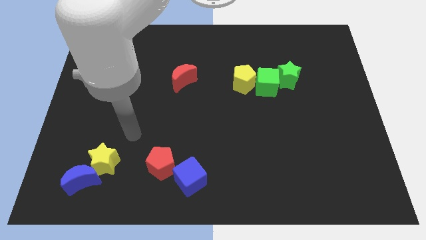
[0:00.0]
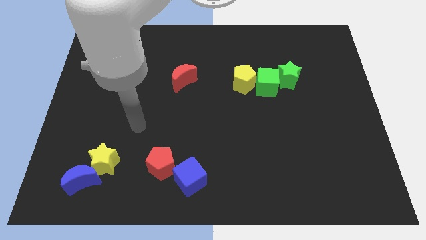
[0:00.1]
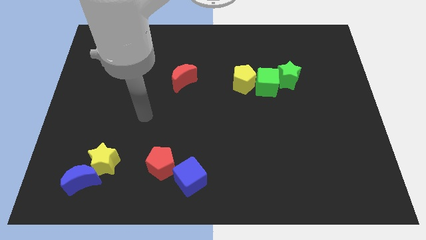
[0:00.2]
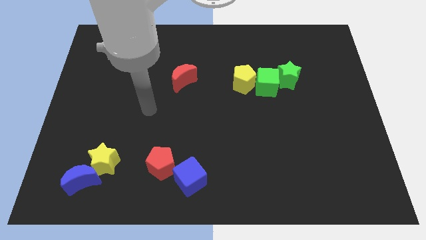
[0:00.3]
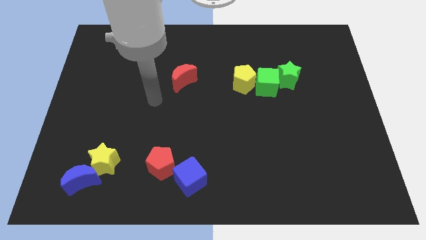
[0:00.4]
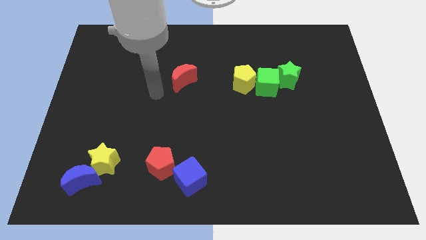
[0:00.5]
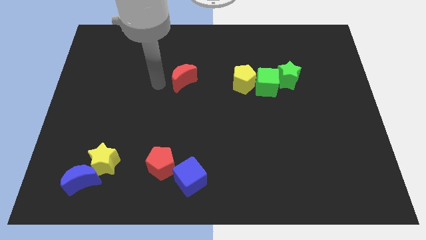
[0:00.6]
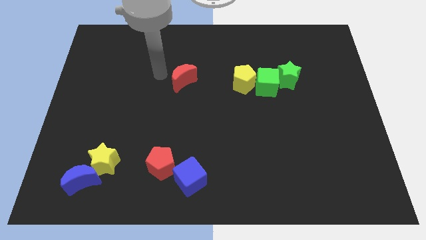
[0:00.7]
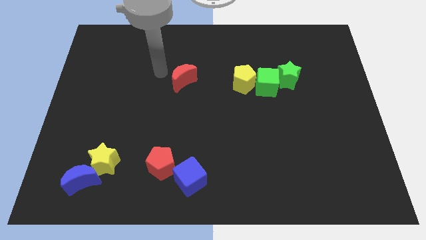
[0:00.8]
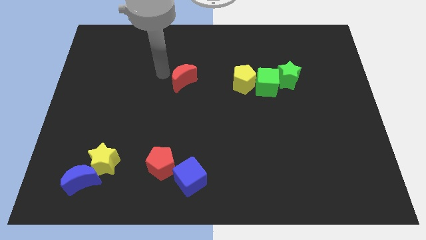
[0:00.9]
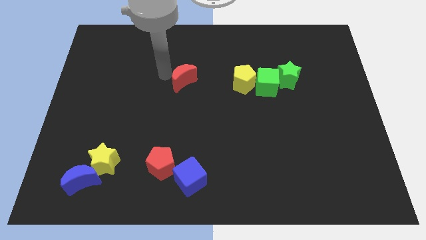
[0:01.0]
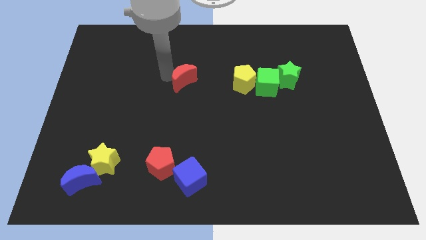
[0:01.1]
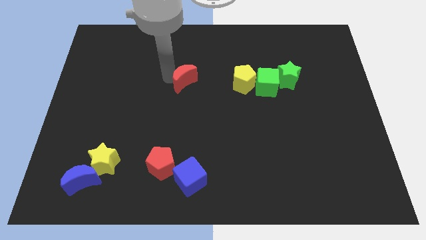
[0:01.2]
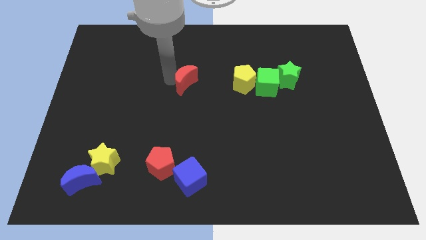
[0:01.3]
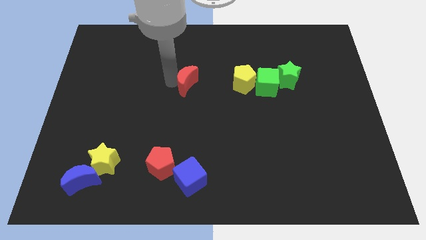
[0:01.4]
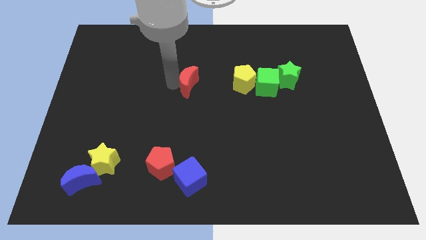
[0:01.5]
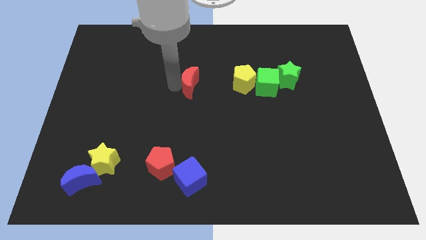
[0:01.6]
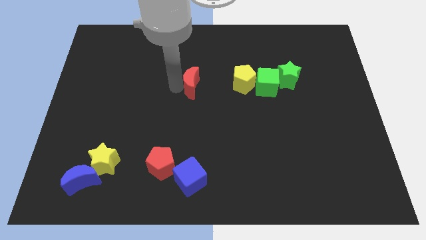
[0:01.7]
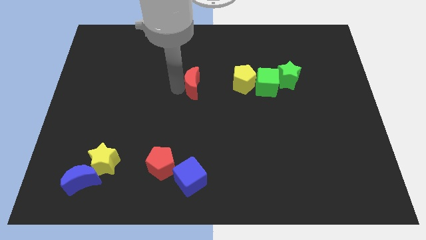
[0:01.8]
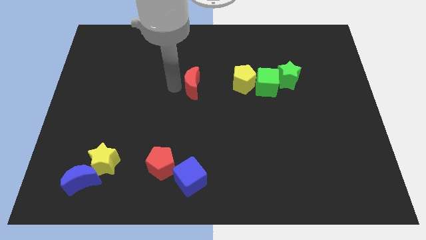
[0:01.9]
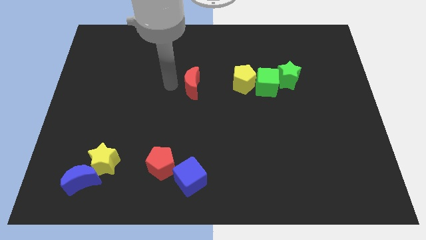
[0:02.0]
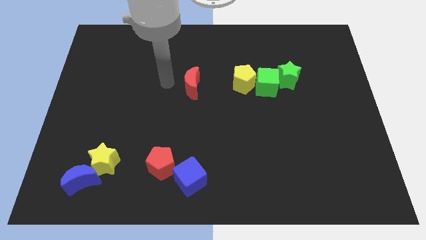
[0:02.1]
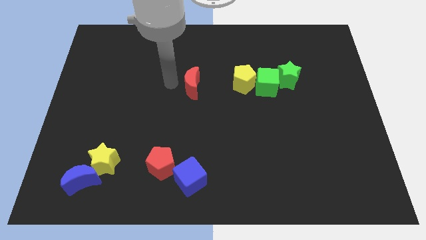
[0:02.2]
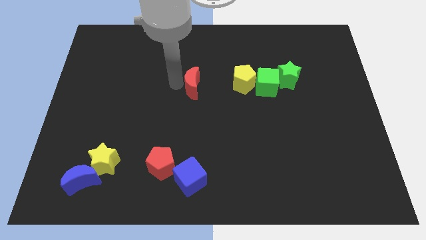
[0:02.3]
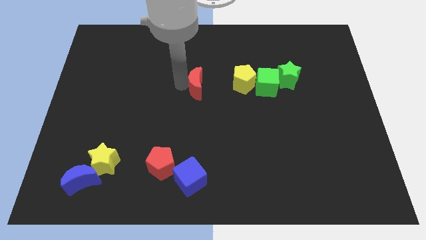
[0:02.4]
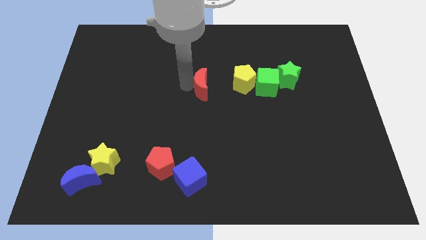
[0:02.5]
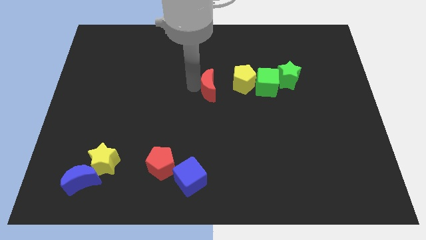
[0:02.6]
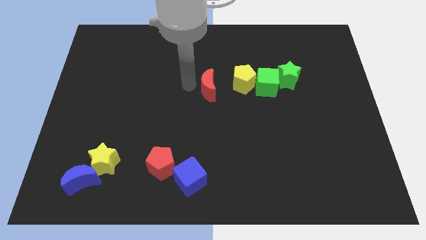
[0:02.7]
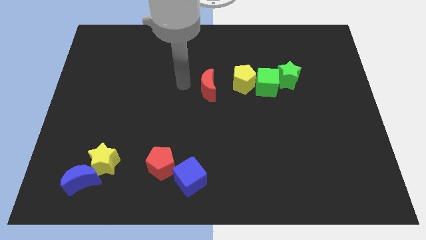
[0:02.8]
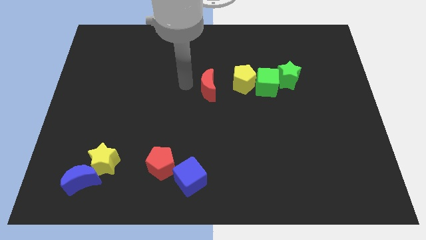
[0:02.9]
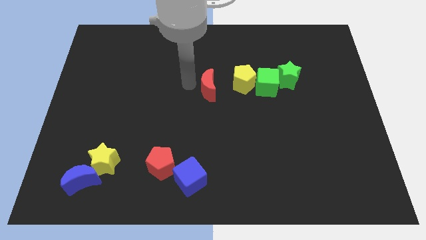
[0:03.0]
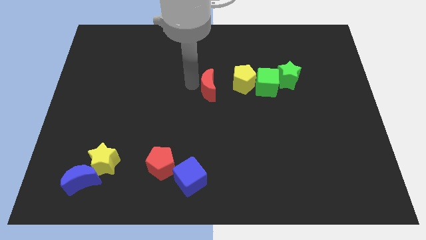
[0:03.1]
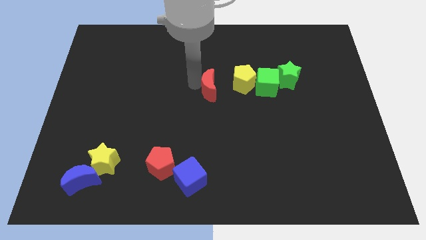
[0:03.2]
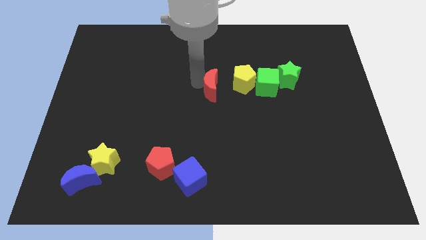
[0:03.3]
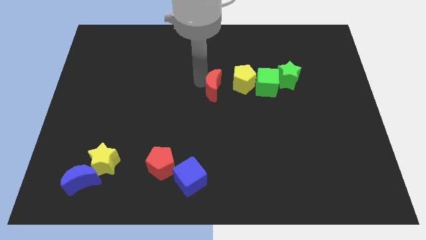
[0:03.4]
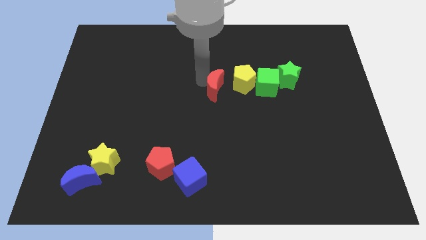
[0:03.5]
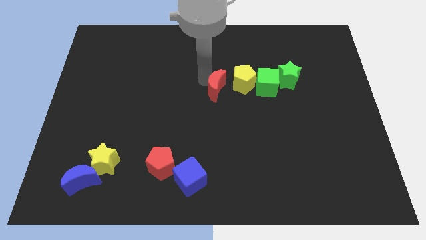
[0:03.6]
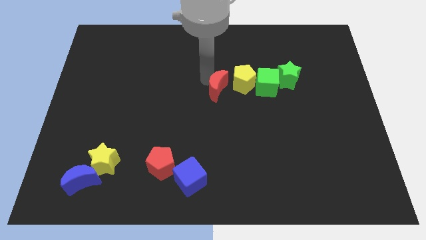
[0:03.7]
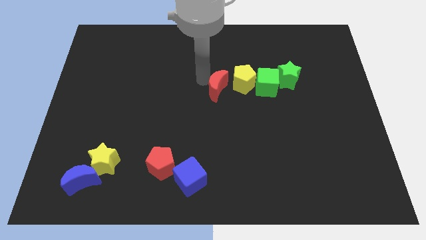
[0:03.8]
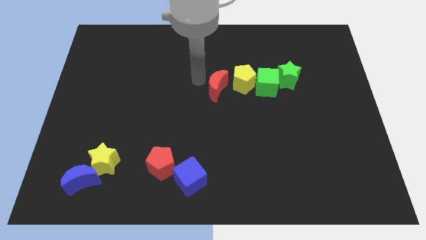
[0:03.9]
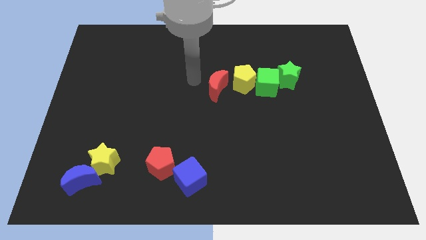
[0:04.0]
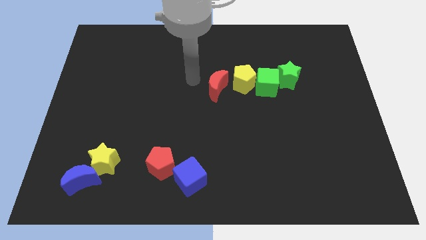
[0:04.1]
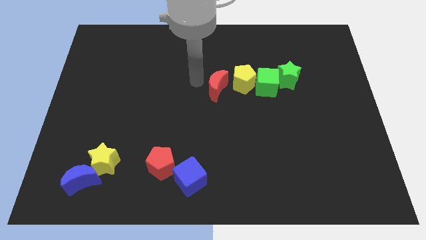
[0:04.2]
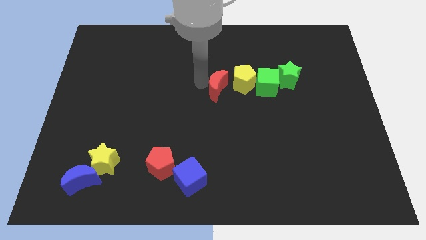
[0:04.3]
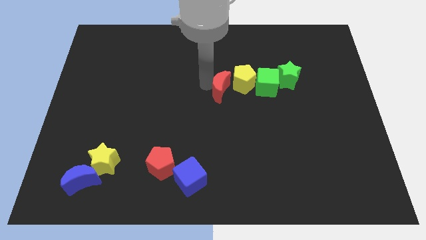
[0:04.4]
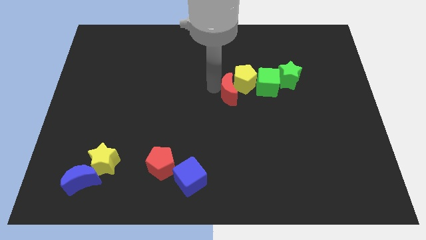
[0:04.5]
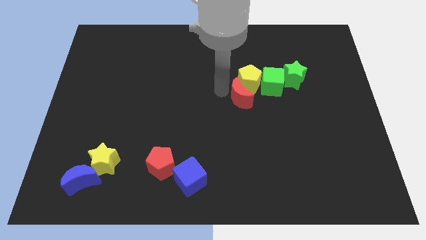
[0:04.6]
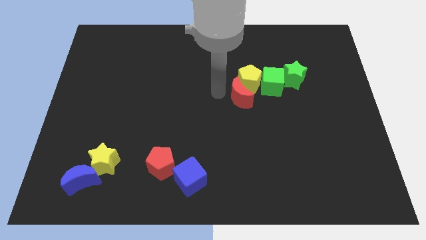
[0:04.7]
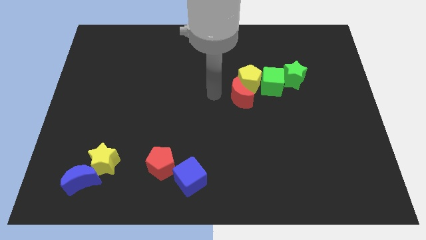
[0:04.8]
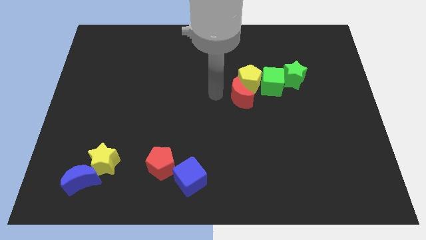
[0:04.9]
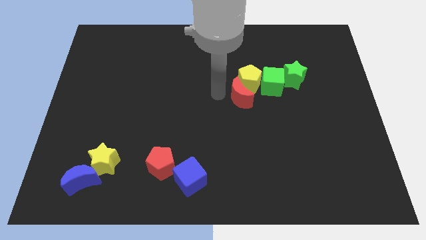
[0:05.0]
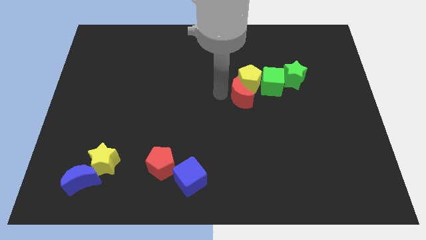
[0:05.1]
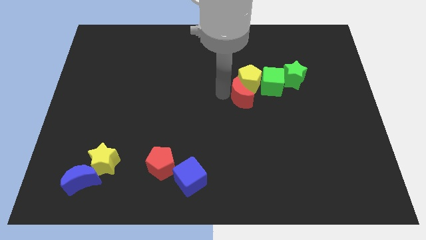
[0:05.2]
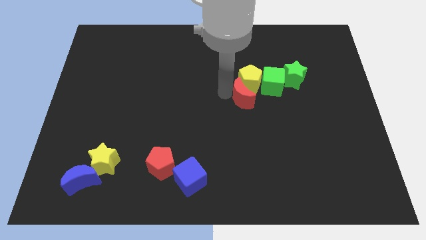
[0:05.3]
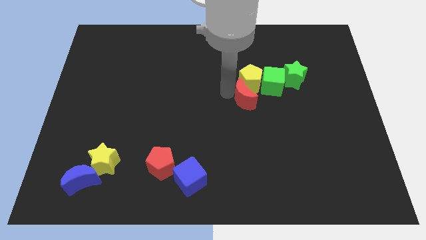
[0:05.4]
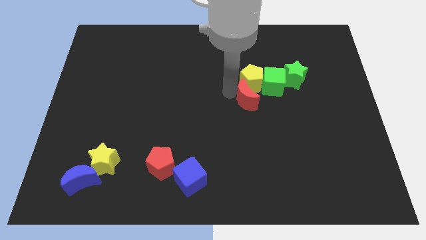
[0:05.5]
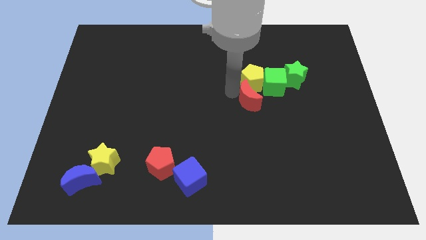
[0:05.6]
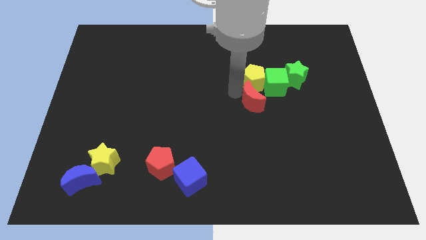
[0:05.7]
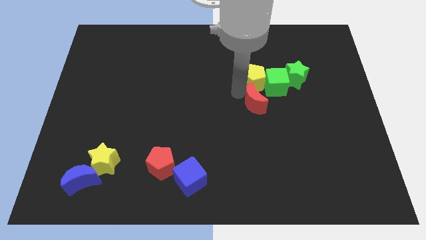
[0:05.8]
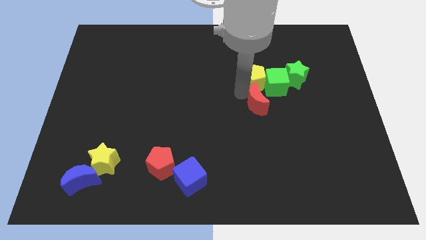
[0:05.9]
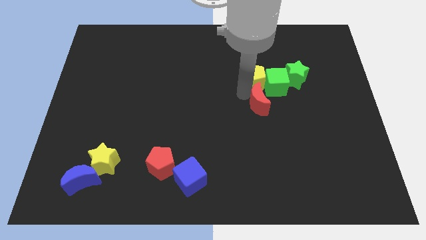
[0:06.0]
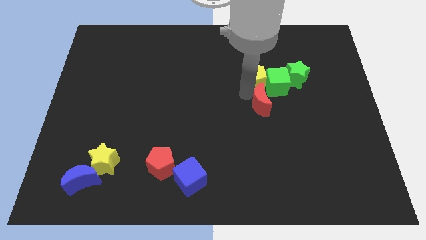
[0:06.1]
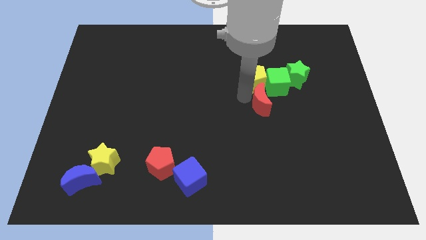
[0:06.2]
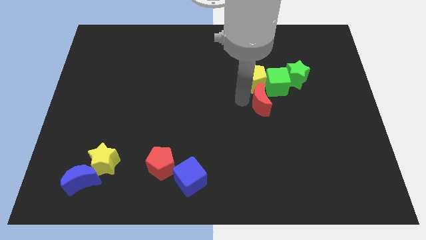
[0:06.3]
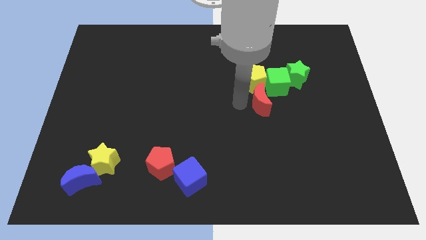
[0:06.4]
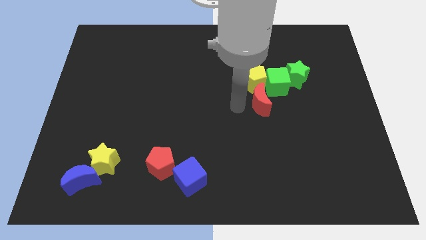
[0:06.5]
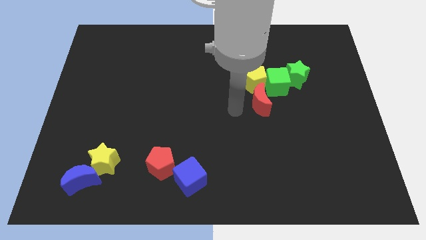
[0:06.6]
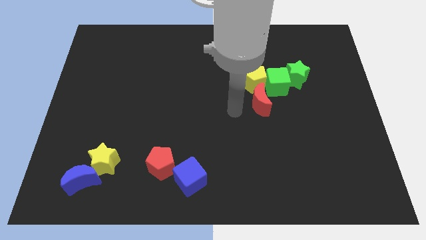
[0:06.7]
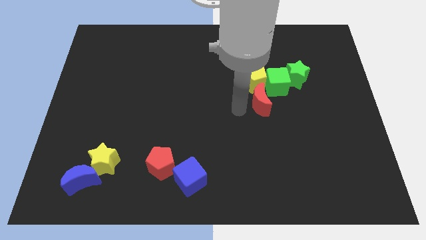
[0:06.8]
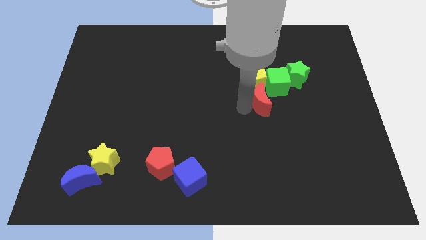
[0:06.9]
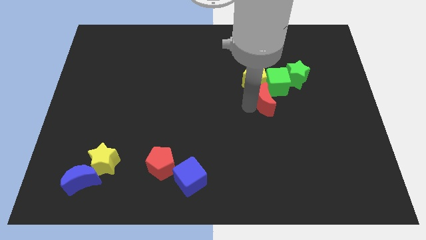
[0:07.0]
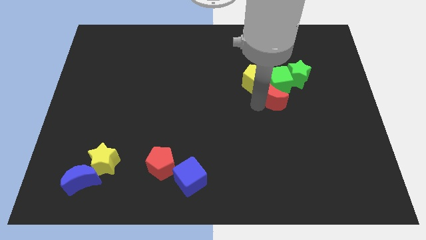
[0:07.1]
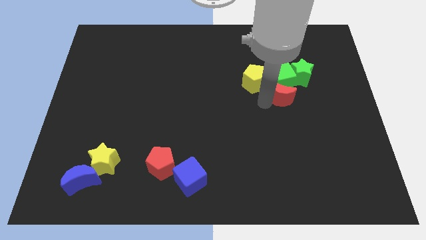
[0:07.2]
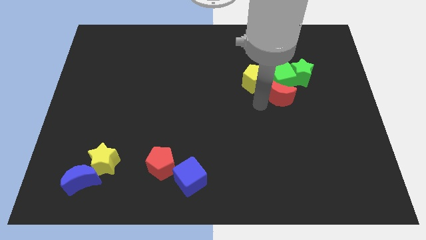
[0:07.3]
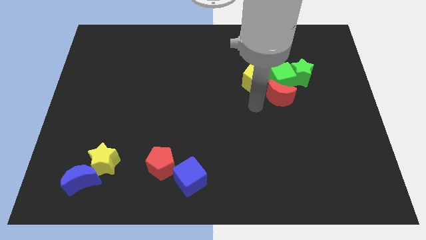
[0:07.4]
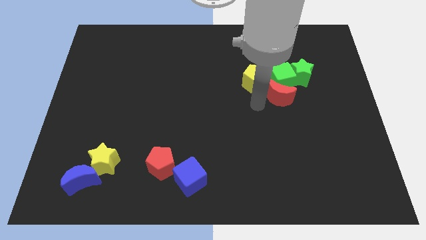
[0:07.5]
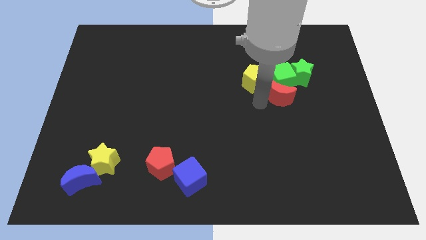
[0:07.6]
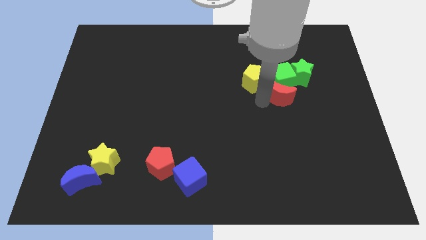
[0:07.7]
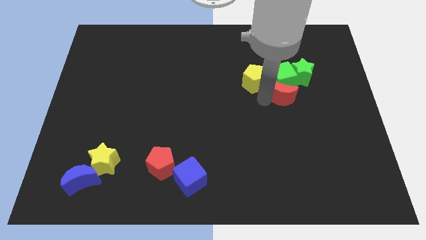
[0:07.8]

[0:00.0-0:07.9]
push the red moon right of the yellow pentagon
